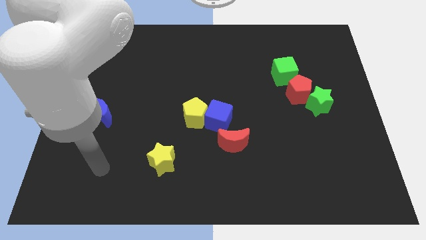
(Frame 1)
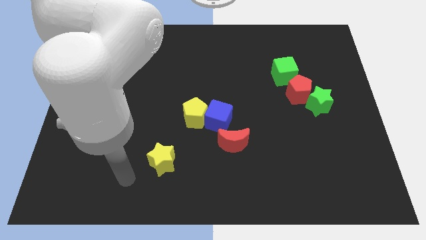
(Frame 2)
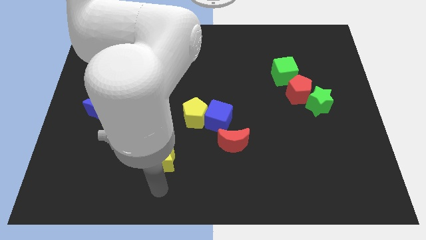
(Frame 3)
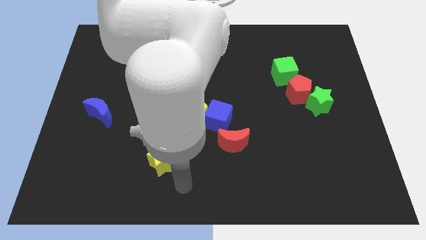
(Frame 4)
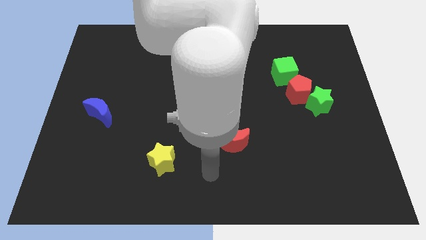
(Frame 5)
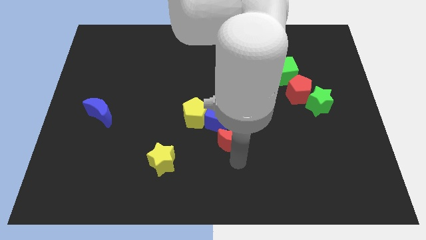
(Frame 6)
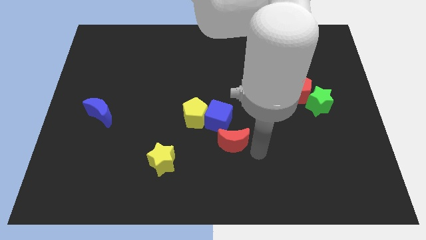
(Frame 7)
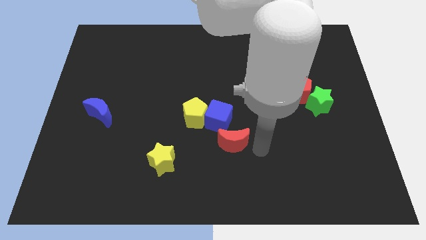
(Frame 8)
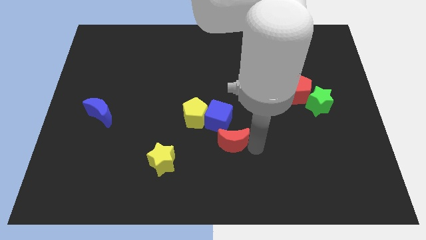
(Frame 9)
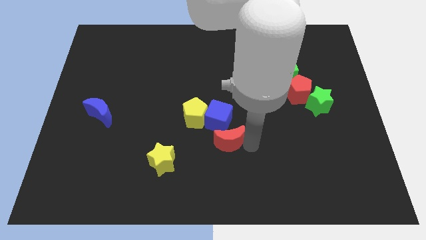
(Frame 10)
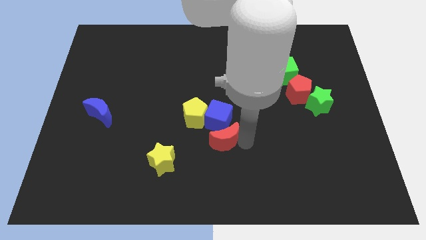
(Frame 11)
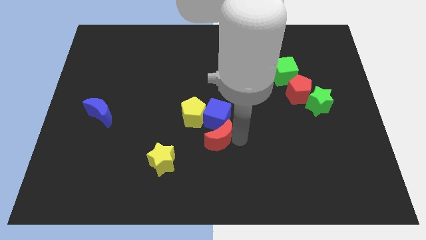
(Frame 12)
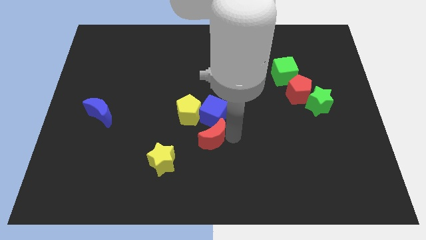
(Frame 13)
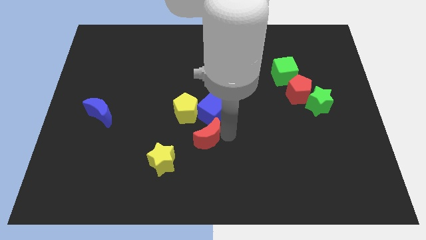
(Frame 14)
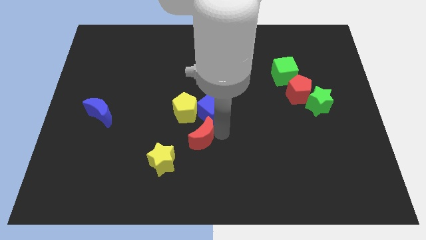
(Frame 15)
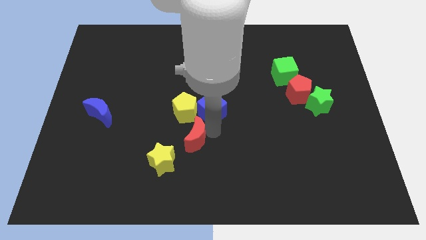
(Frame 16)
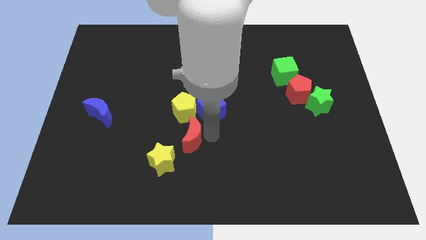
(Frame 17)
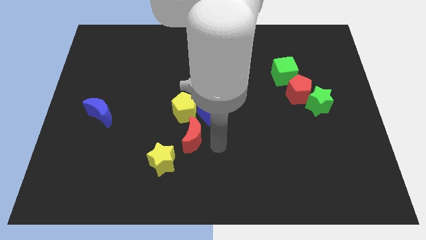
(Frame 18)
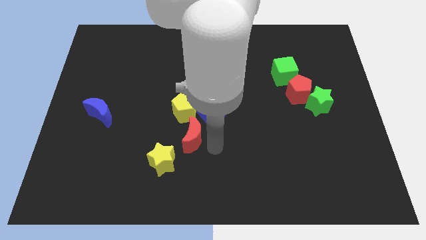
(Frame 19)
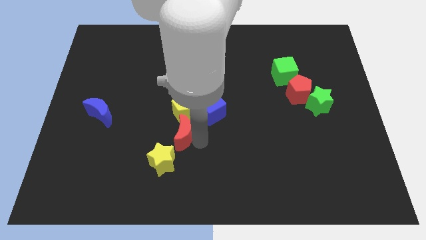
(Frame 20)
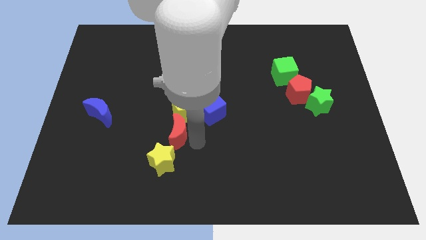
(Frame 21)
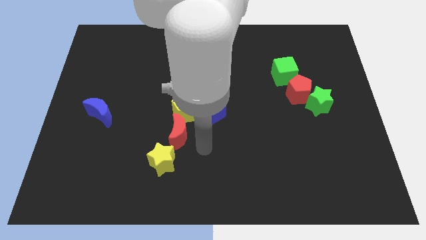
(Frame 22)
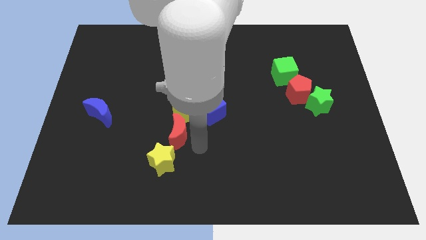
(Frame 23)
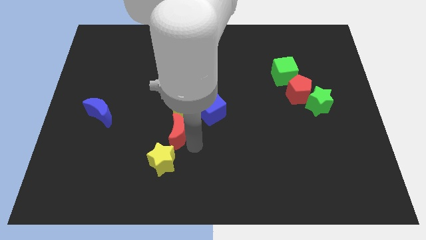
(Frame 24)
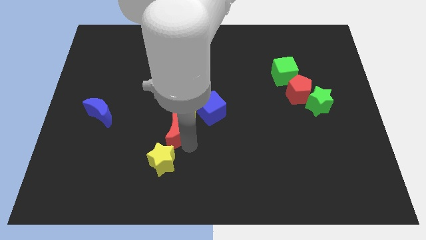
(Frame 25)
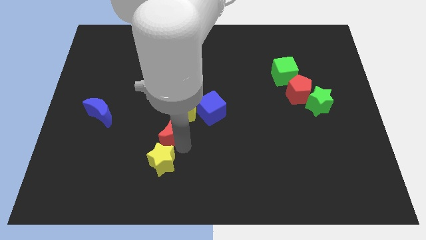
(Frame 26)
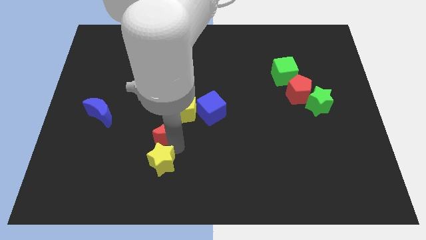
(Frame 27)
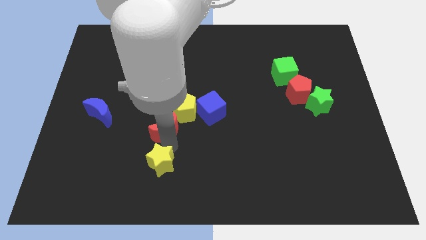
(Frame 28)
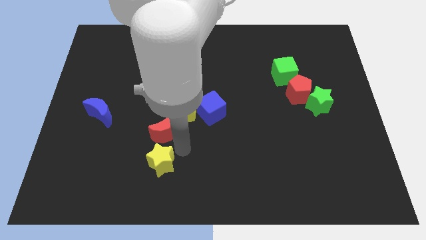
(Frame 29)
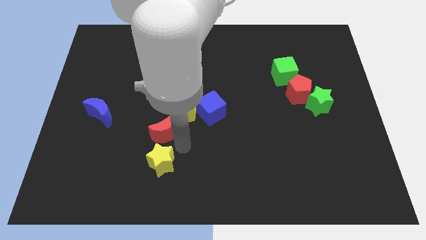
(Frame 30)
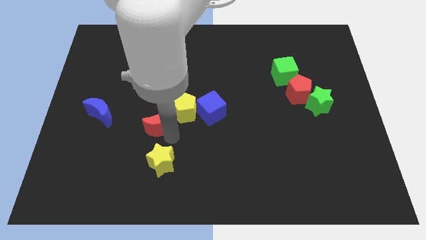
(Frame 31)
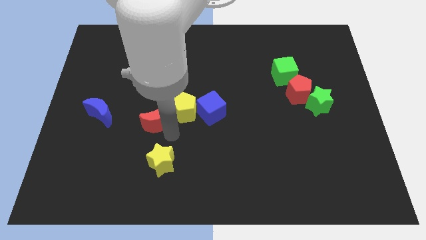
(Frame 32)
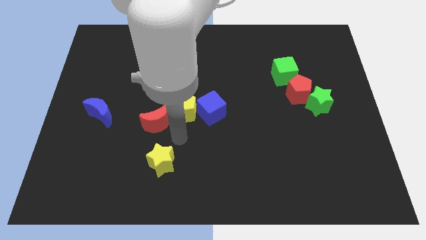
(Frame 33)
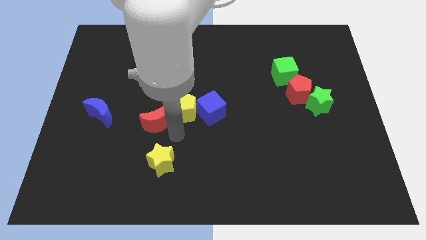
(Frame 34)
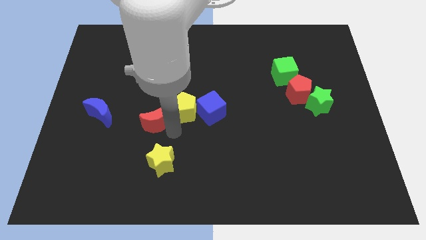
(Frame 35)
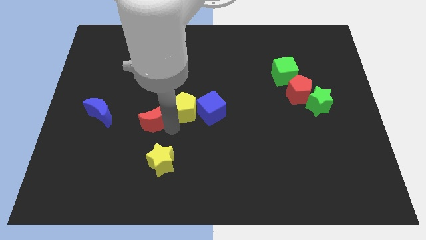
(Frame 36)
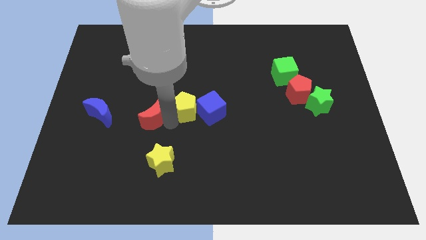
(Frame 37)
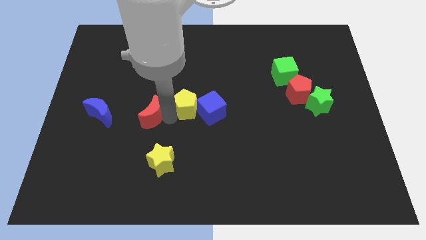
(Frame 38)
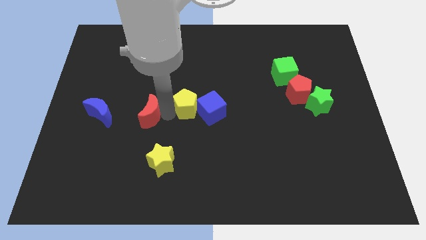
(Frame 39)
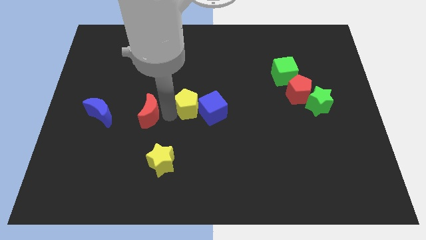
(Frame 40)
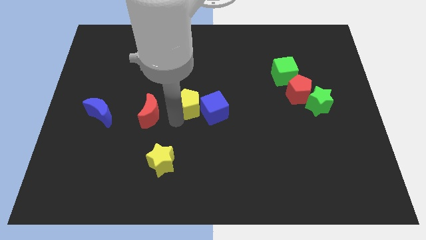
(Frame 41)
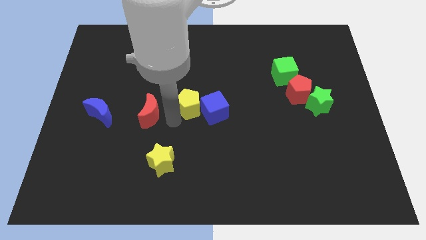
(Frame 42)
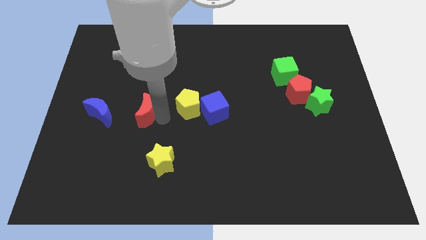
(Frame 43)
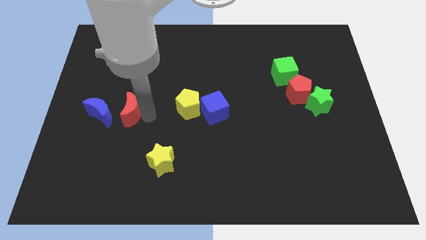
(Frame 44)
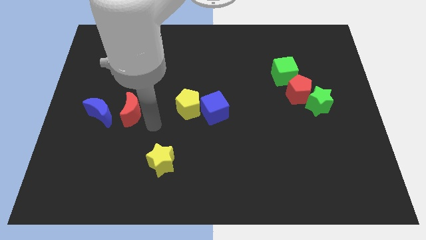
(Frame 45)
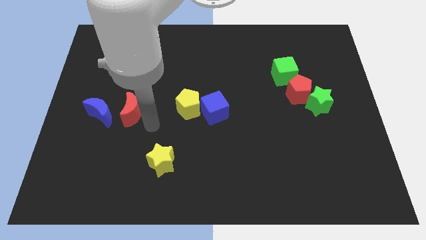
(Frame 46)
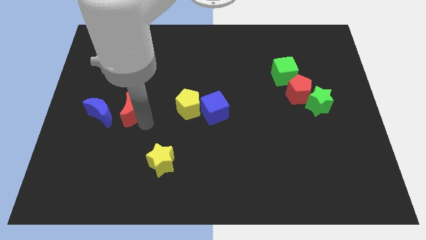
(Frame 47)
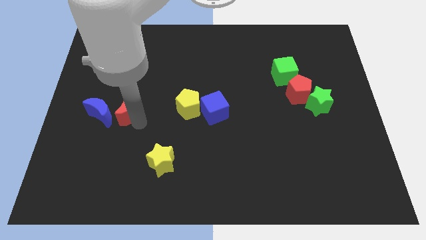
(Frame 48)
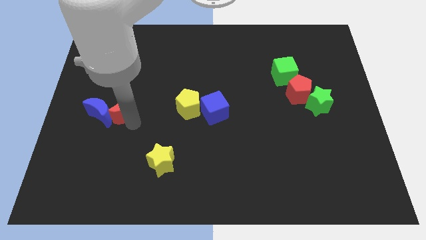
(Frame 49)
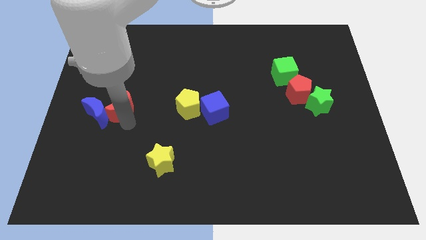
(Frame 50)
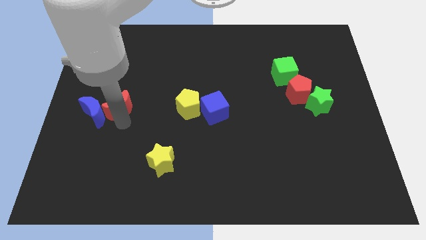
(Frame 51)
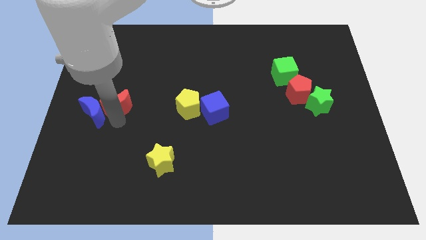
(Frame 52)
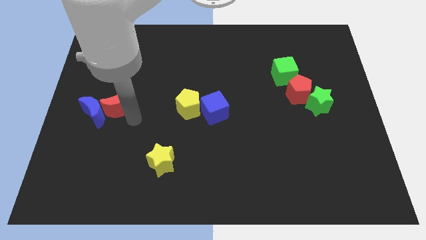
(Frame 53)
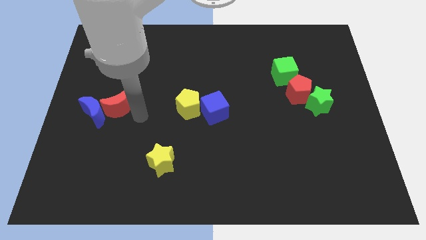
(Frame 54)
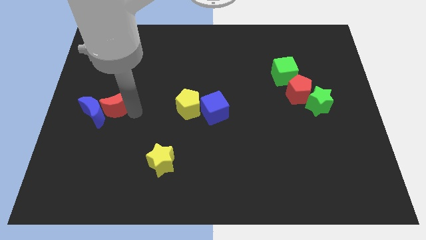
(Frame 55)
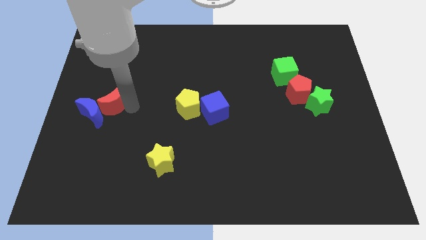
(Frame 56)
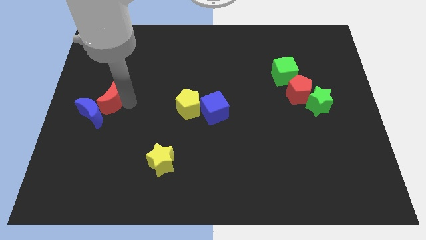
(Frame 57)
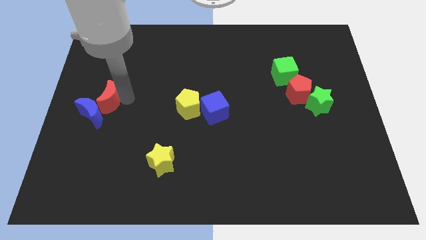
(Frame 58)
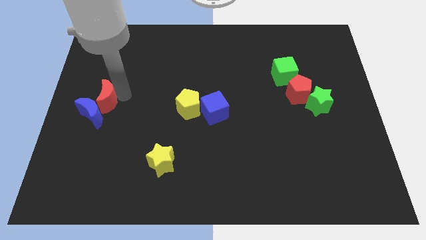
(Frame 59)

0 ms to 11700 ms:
put the red moon to the left side

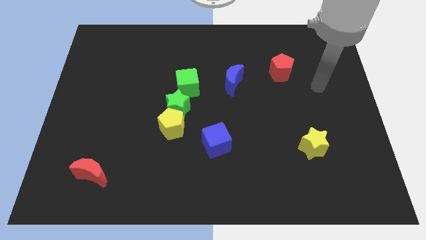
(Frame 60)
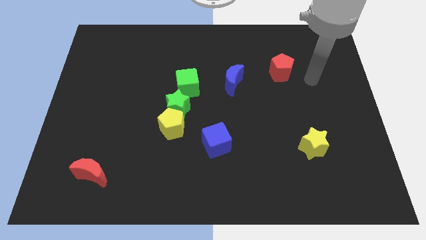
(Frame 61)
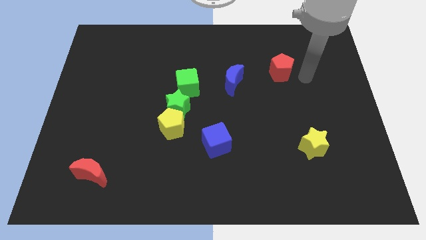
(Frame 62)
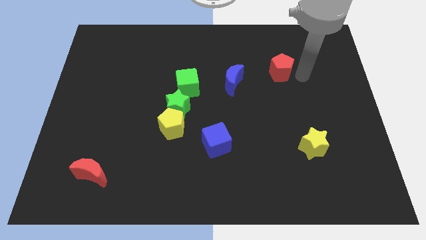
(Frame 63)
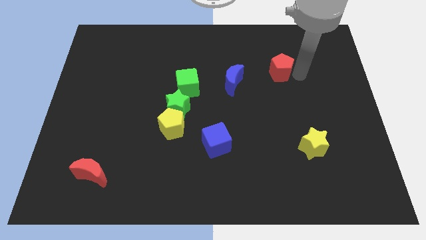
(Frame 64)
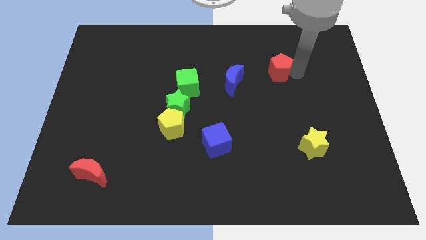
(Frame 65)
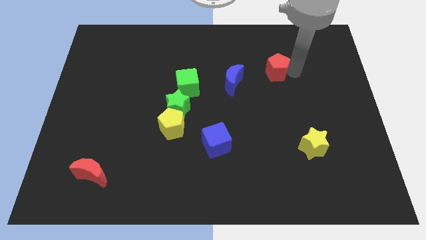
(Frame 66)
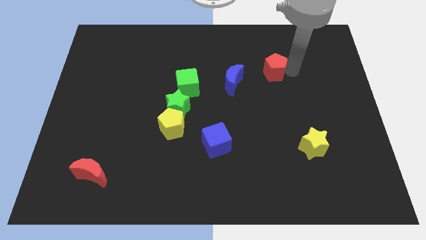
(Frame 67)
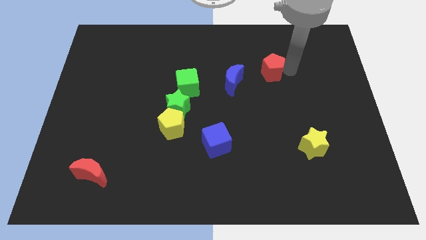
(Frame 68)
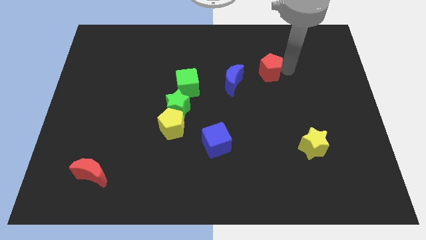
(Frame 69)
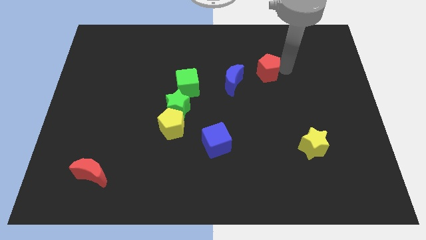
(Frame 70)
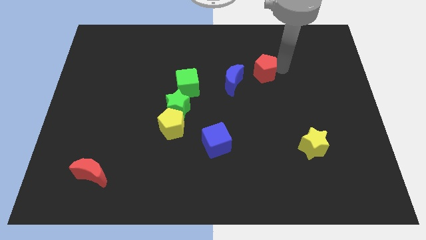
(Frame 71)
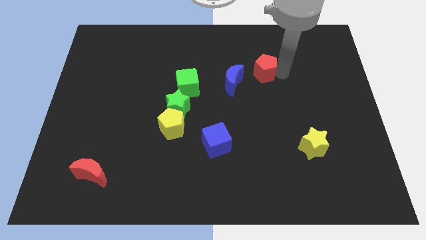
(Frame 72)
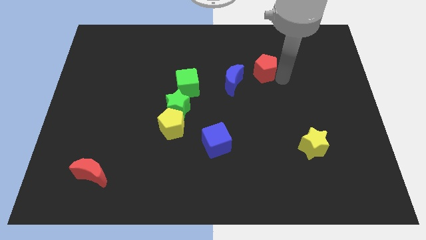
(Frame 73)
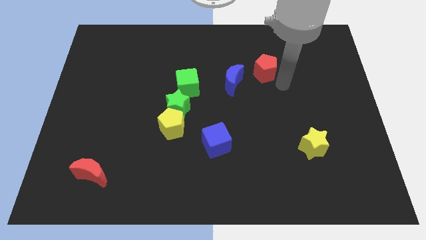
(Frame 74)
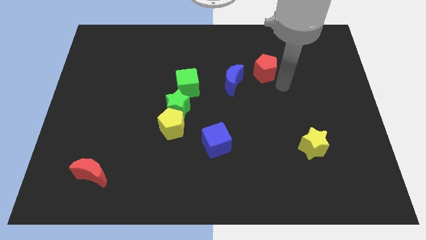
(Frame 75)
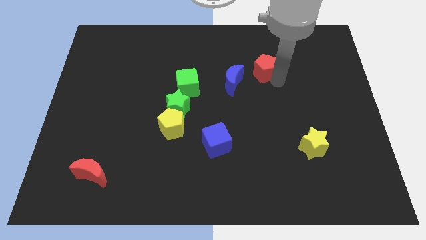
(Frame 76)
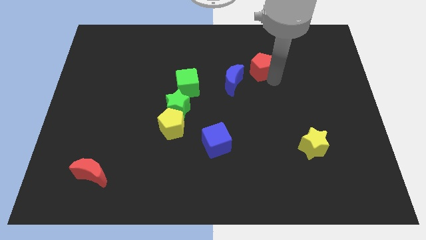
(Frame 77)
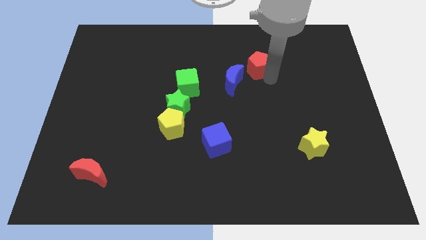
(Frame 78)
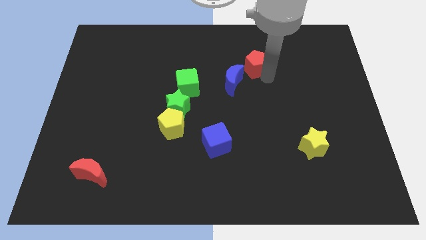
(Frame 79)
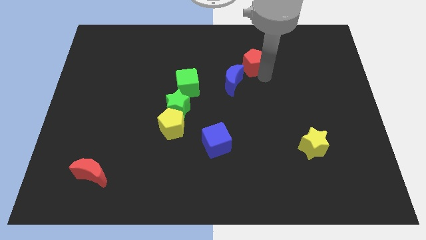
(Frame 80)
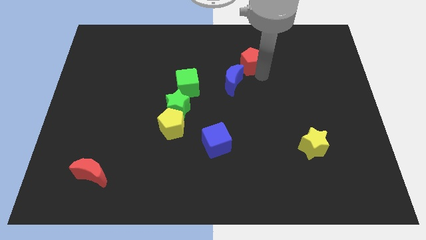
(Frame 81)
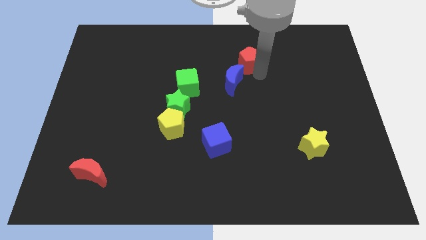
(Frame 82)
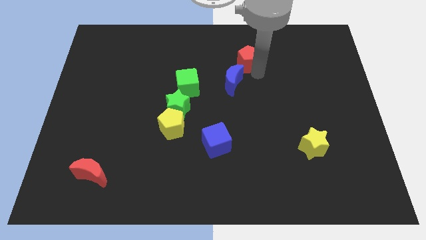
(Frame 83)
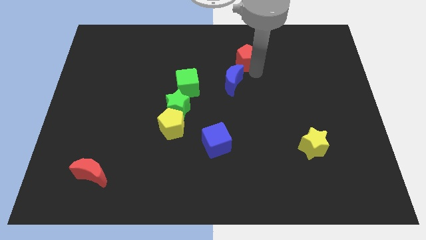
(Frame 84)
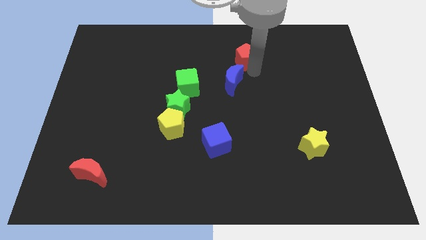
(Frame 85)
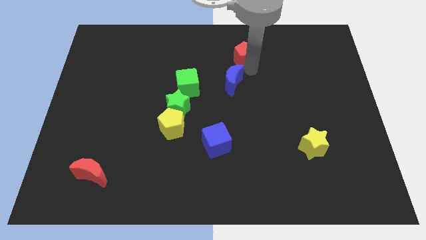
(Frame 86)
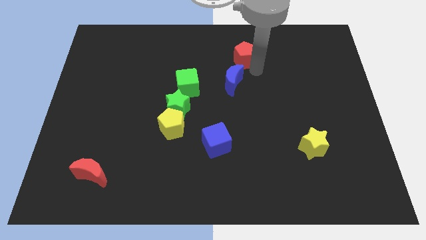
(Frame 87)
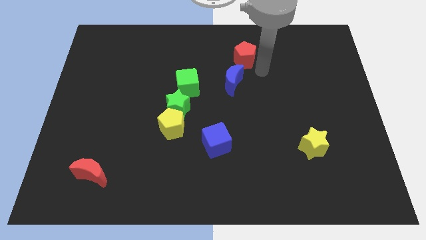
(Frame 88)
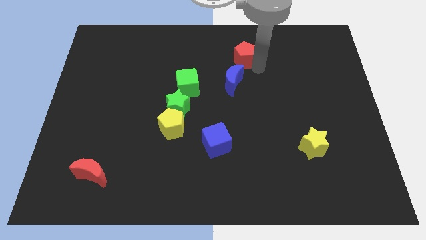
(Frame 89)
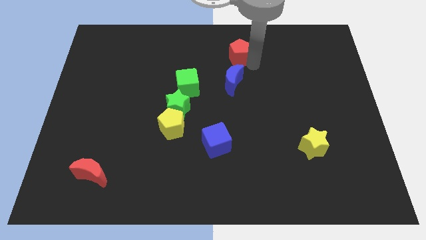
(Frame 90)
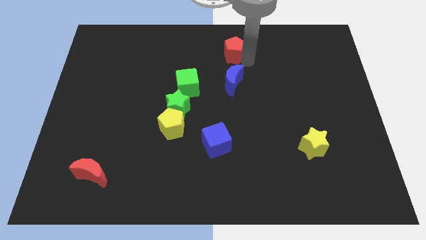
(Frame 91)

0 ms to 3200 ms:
move the red pentagon to the towards your base
